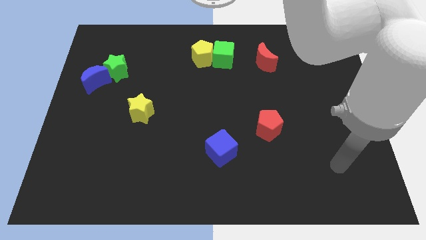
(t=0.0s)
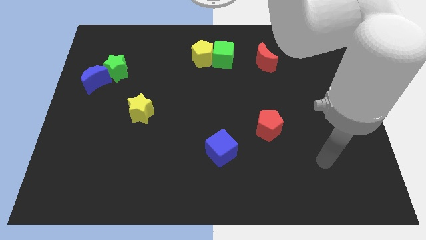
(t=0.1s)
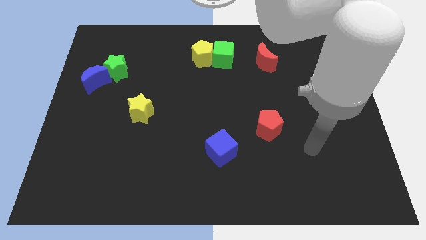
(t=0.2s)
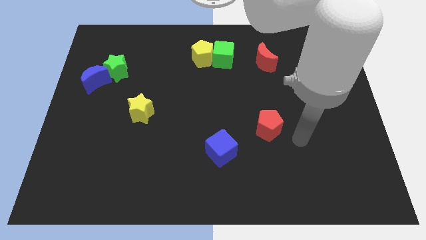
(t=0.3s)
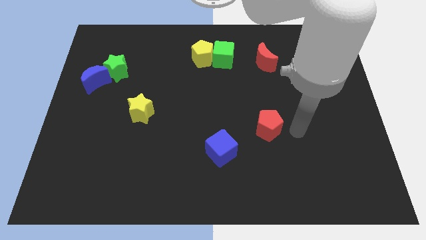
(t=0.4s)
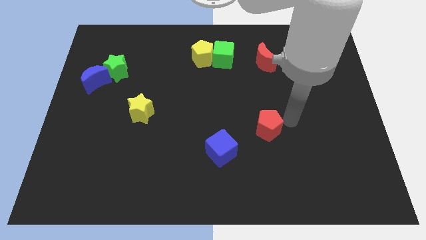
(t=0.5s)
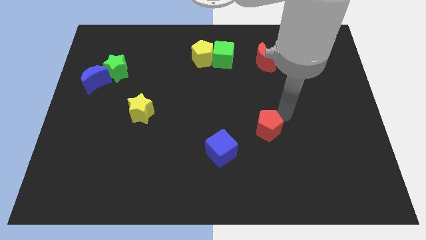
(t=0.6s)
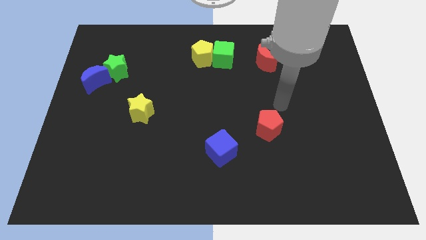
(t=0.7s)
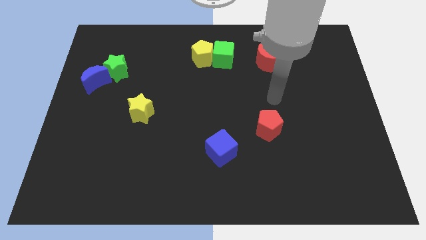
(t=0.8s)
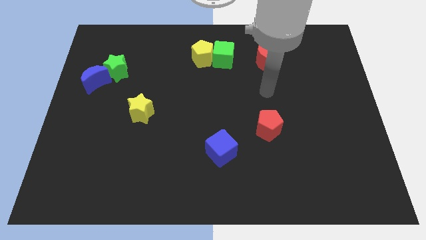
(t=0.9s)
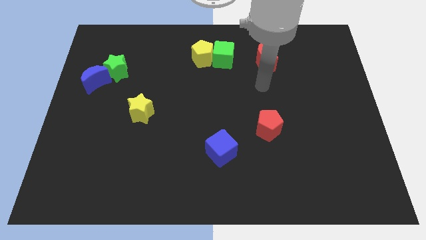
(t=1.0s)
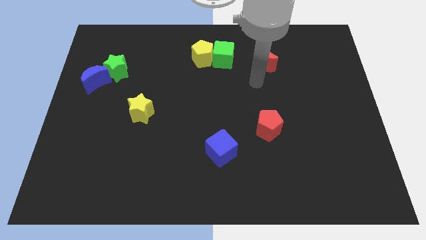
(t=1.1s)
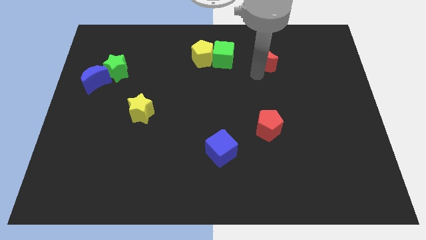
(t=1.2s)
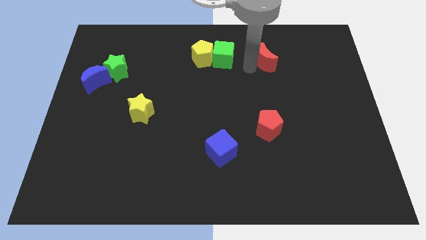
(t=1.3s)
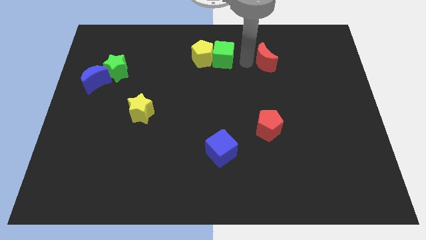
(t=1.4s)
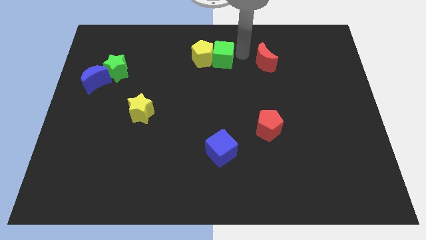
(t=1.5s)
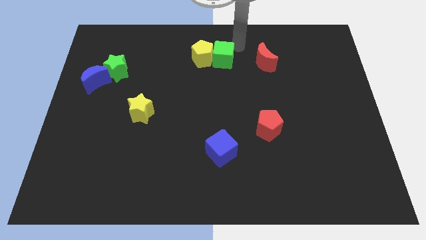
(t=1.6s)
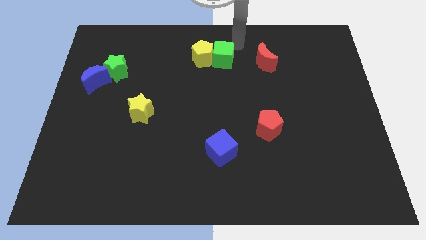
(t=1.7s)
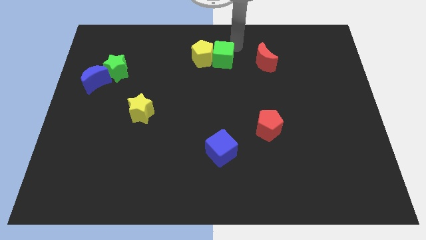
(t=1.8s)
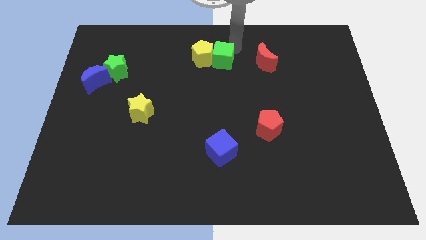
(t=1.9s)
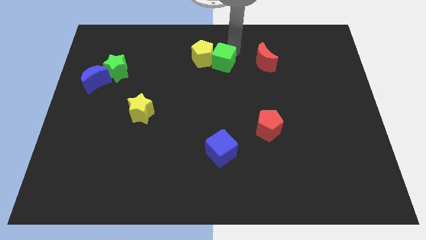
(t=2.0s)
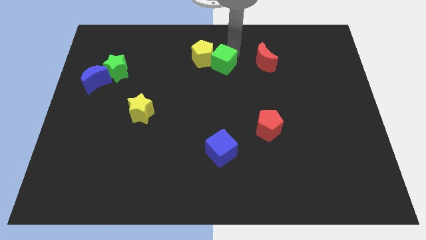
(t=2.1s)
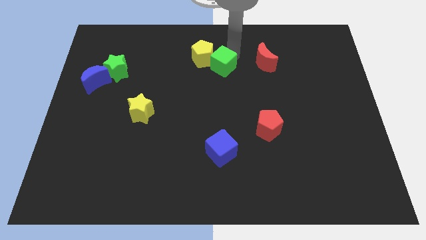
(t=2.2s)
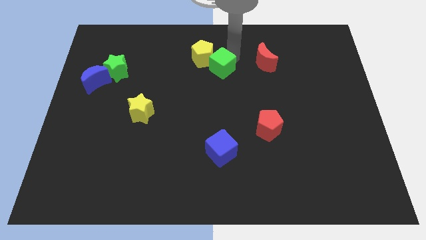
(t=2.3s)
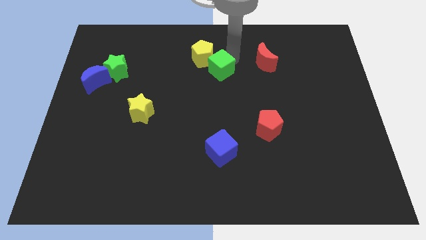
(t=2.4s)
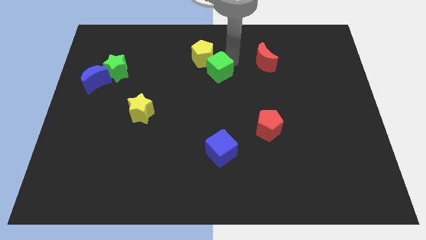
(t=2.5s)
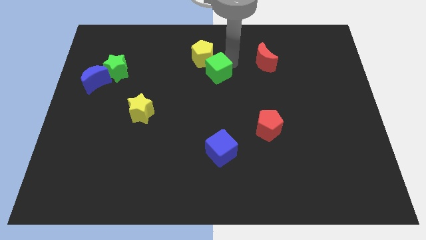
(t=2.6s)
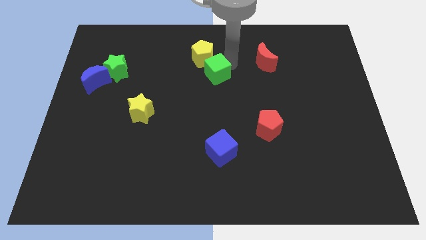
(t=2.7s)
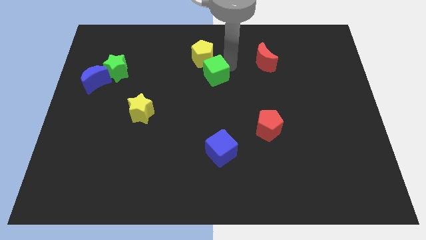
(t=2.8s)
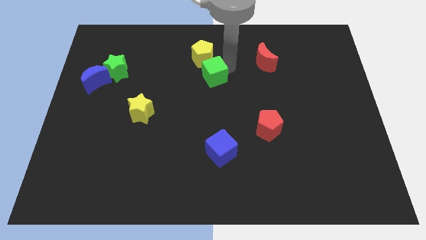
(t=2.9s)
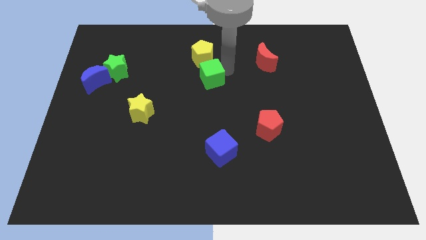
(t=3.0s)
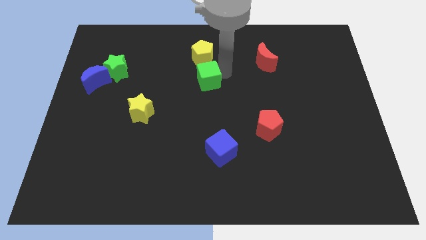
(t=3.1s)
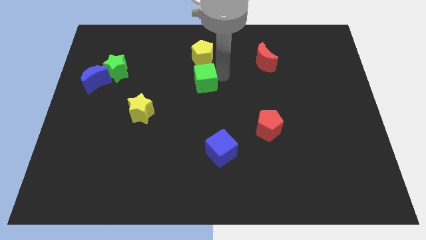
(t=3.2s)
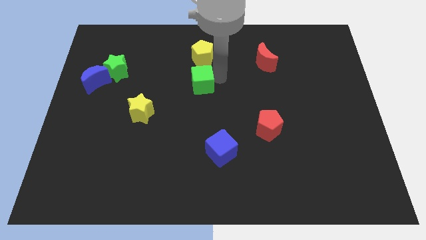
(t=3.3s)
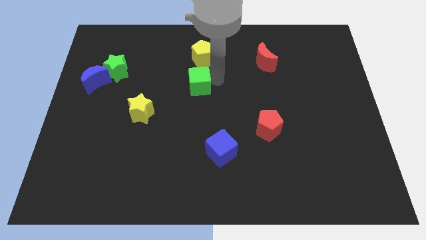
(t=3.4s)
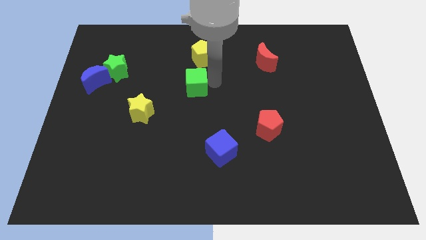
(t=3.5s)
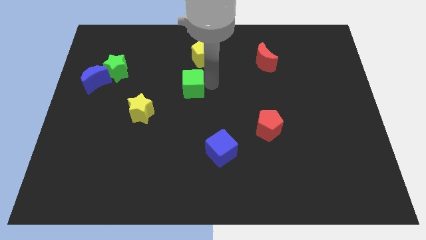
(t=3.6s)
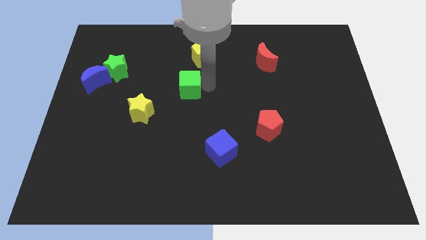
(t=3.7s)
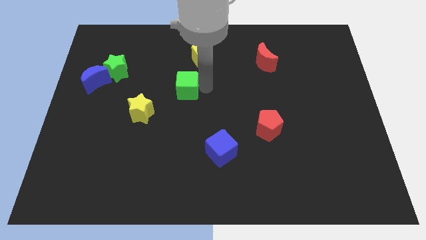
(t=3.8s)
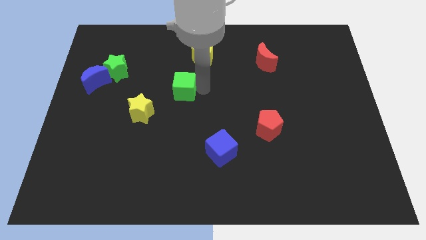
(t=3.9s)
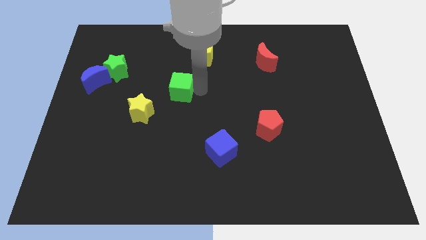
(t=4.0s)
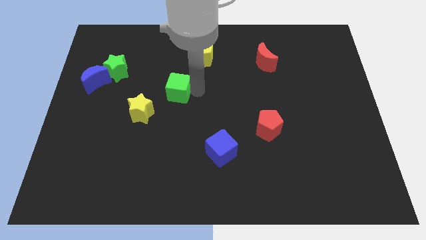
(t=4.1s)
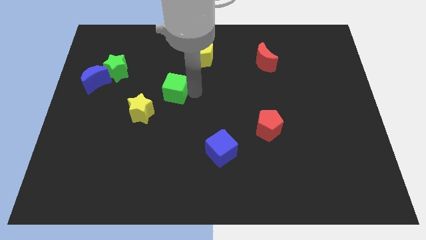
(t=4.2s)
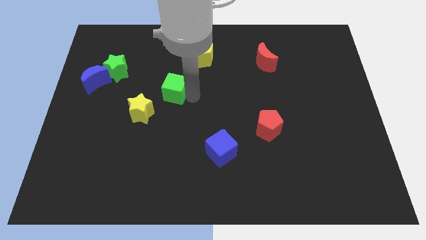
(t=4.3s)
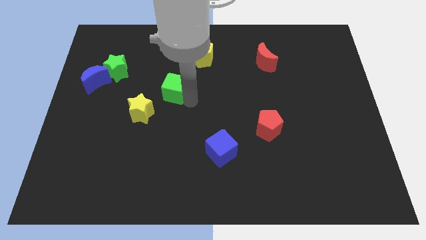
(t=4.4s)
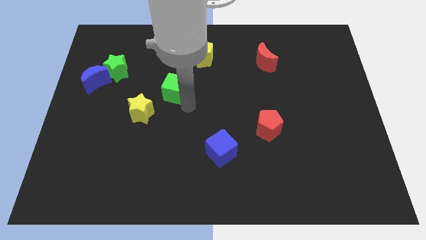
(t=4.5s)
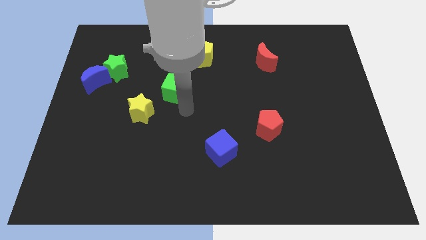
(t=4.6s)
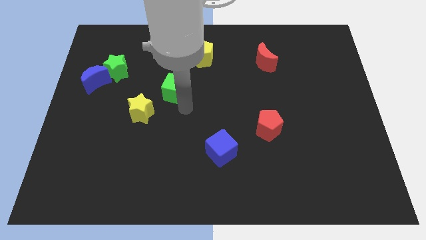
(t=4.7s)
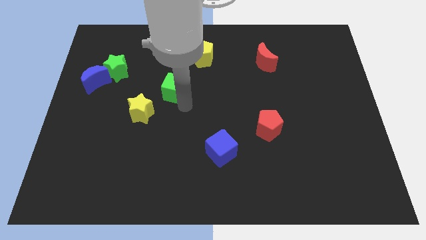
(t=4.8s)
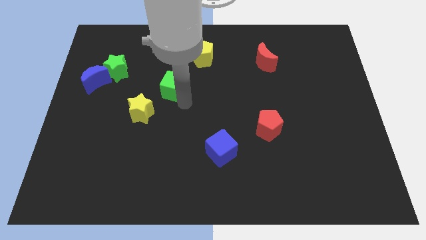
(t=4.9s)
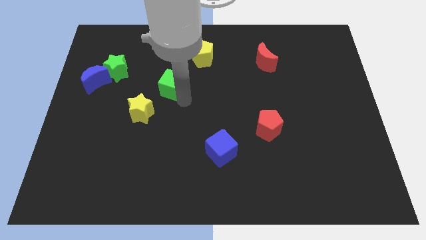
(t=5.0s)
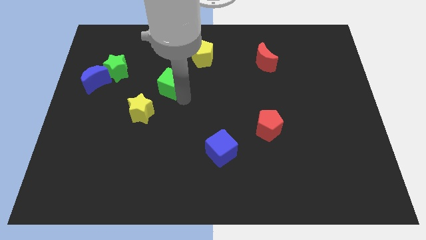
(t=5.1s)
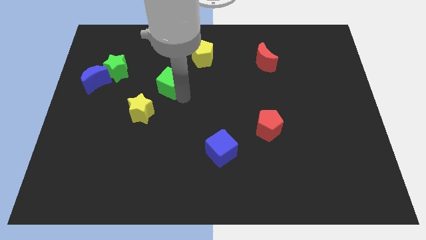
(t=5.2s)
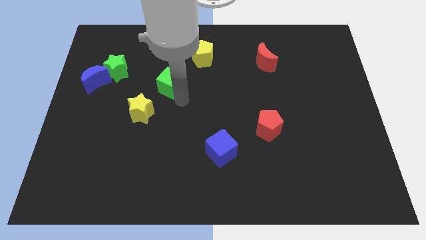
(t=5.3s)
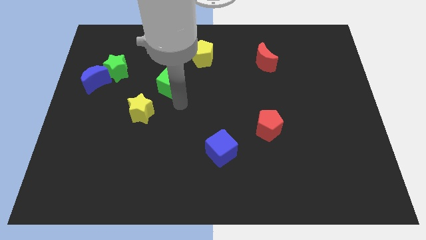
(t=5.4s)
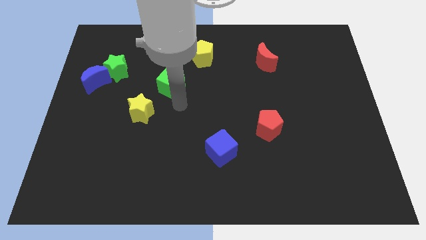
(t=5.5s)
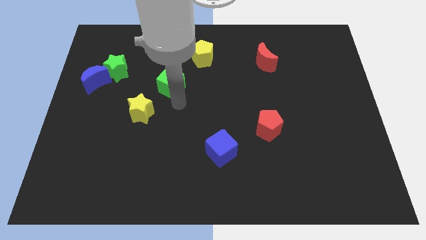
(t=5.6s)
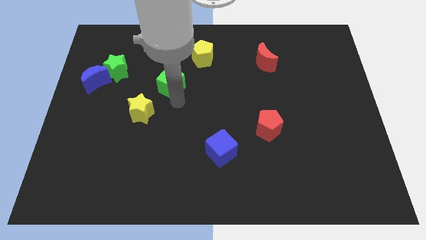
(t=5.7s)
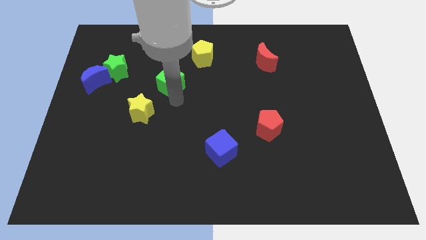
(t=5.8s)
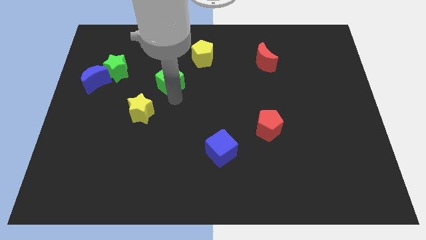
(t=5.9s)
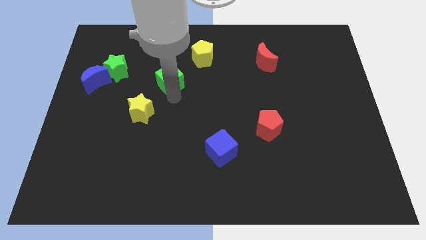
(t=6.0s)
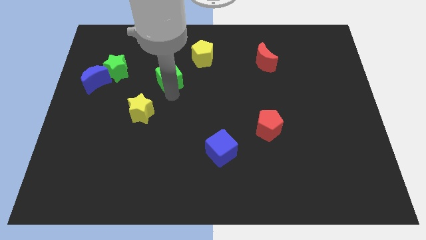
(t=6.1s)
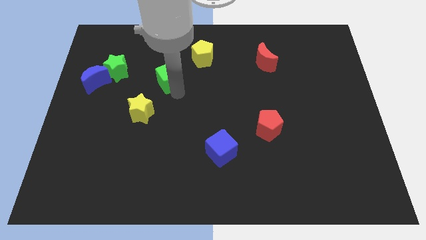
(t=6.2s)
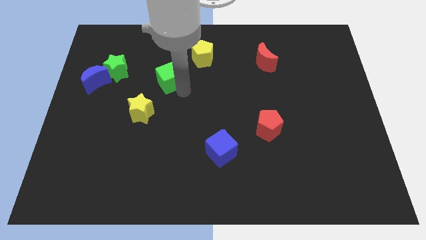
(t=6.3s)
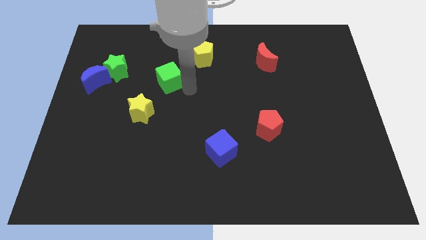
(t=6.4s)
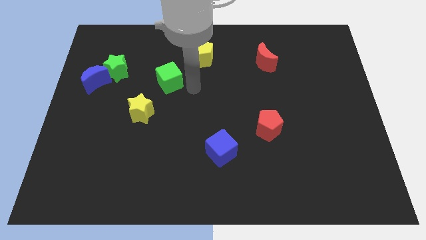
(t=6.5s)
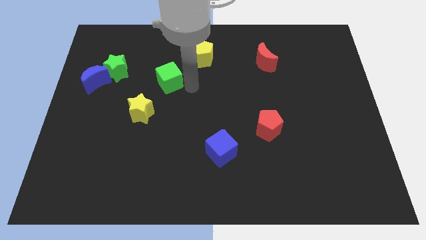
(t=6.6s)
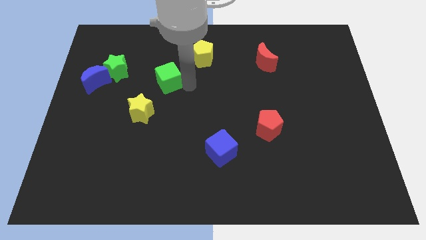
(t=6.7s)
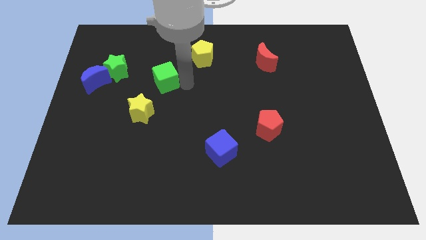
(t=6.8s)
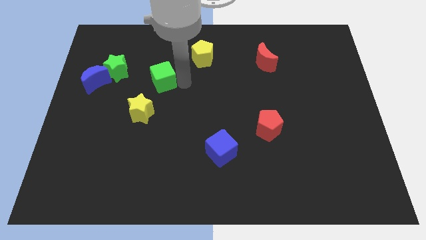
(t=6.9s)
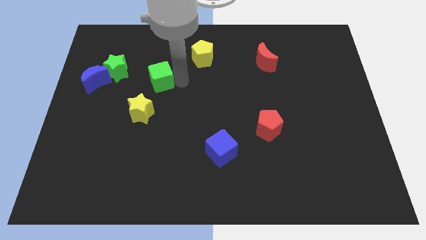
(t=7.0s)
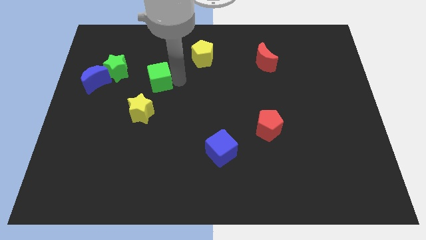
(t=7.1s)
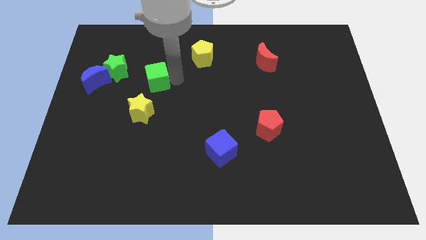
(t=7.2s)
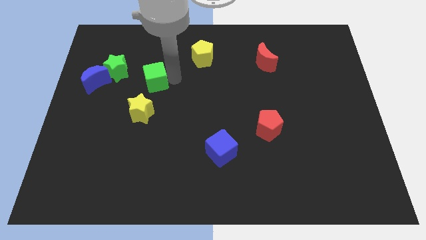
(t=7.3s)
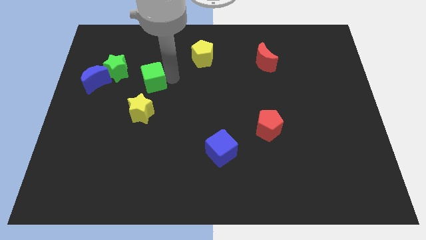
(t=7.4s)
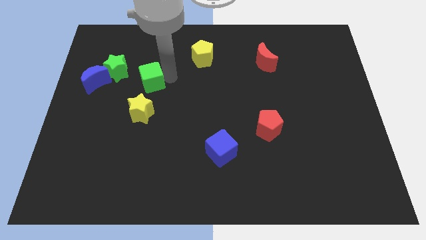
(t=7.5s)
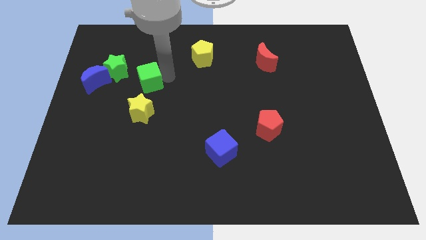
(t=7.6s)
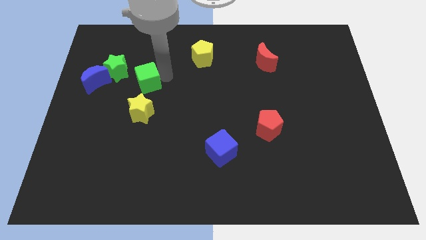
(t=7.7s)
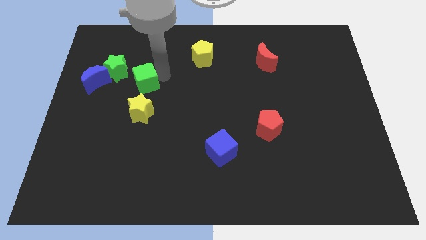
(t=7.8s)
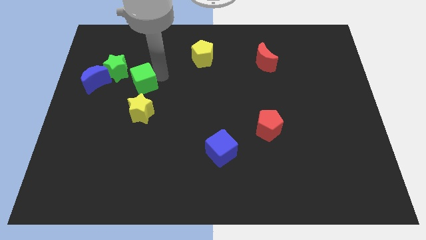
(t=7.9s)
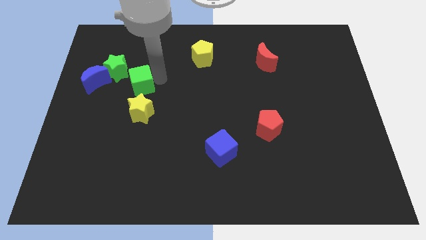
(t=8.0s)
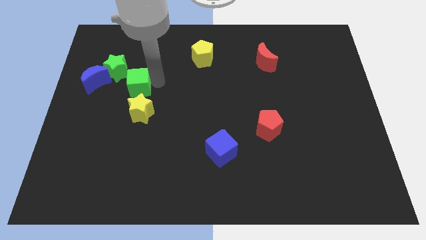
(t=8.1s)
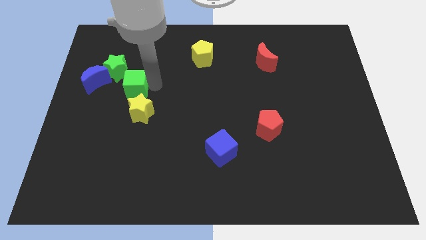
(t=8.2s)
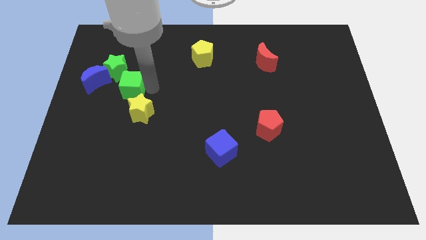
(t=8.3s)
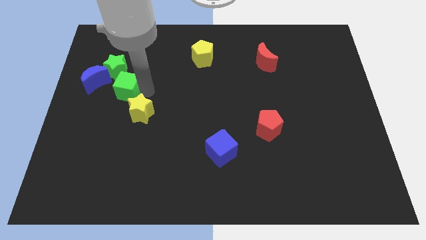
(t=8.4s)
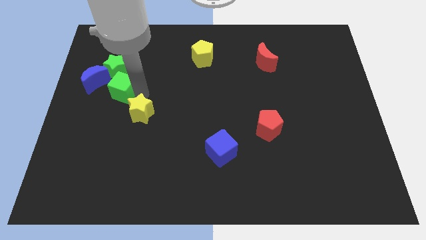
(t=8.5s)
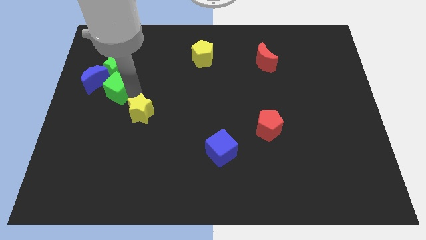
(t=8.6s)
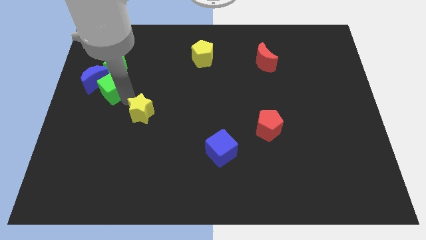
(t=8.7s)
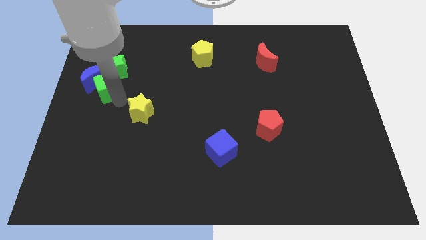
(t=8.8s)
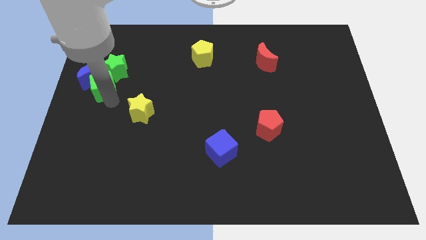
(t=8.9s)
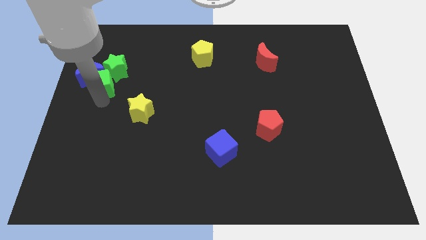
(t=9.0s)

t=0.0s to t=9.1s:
slide the green cube next to the green star
